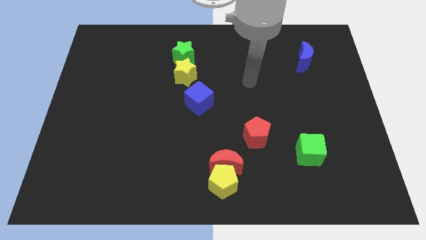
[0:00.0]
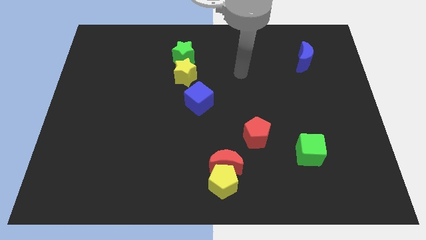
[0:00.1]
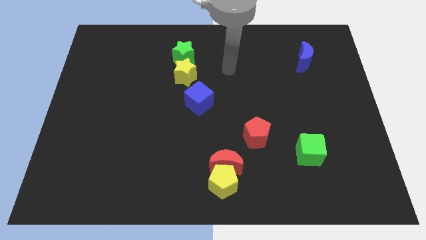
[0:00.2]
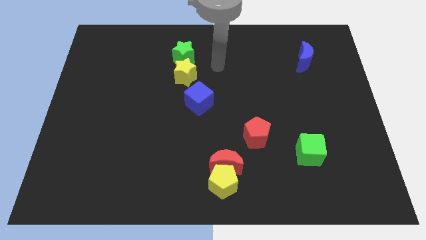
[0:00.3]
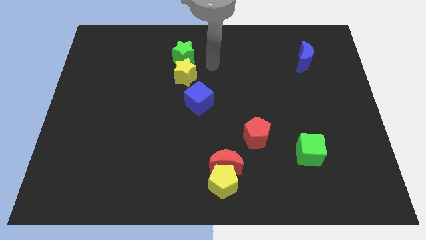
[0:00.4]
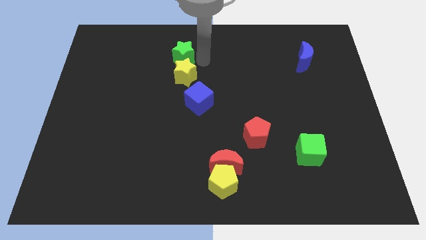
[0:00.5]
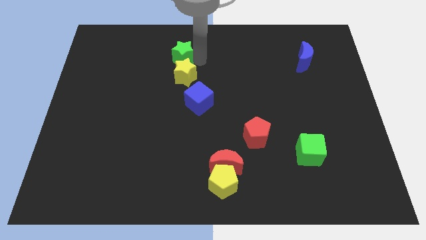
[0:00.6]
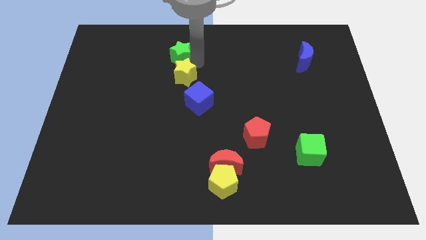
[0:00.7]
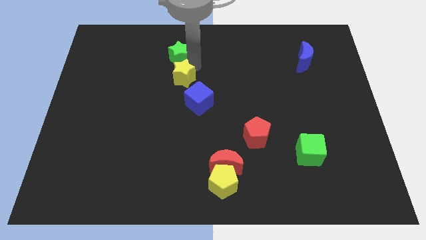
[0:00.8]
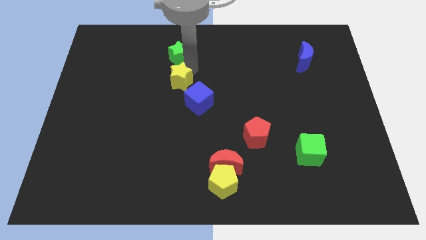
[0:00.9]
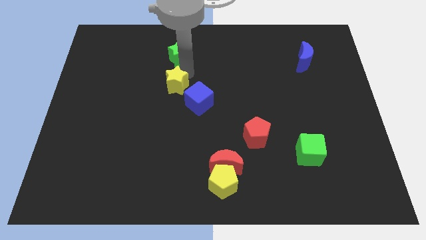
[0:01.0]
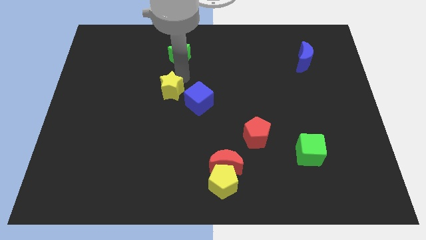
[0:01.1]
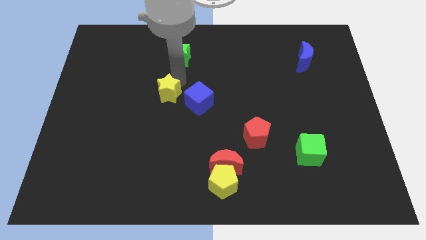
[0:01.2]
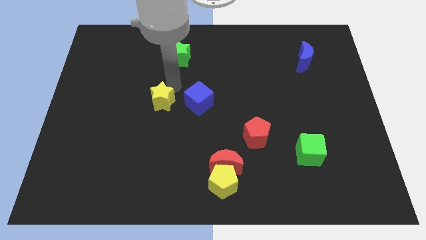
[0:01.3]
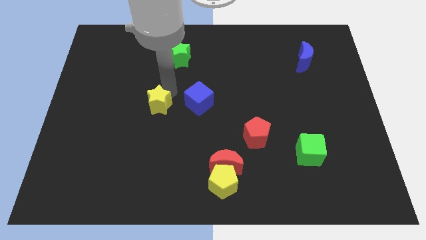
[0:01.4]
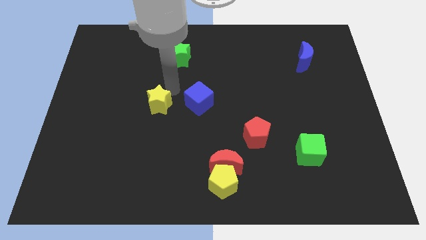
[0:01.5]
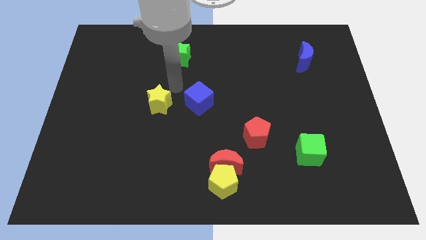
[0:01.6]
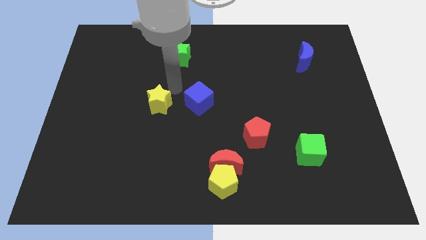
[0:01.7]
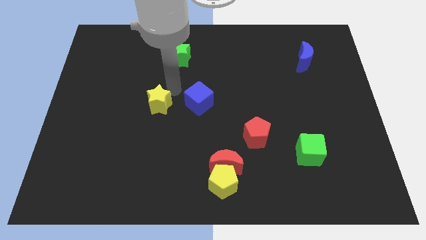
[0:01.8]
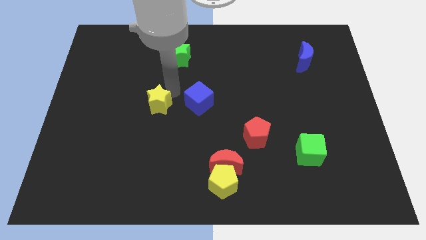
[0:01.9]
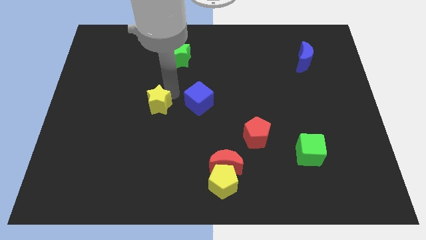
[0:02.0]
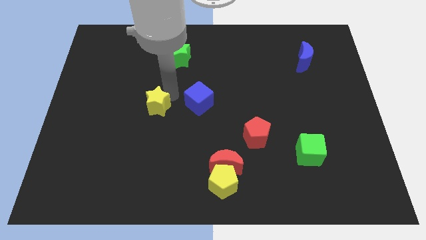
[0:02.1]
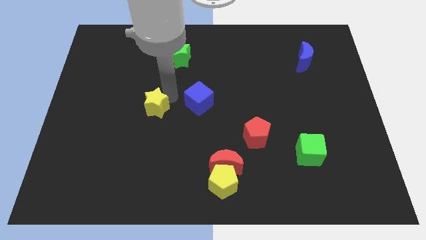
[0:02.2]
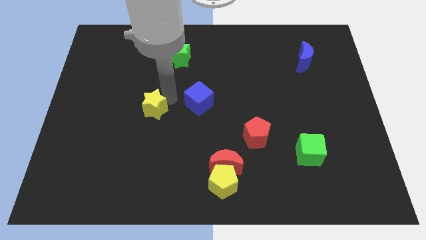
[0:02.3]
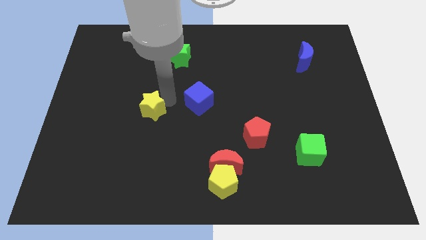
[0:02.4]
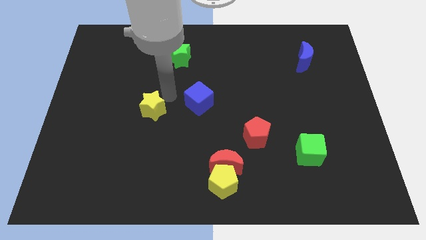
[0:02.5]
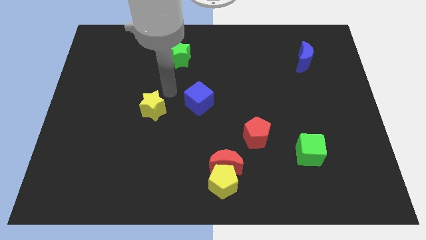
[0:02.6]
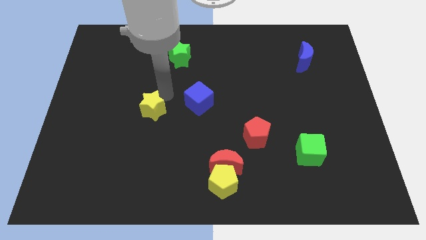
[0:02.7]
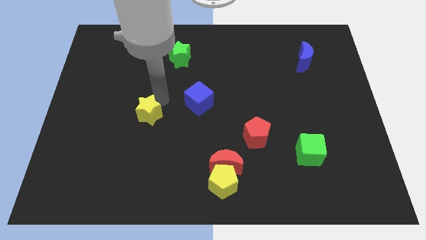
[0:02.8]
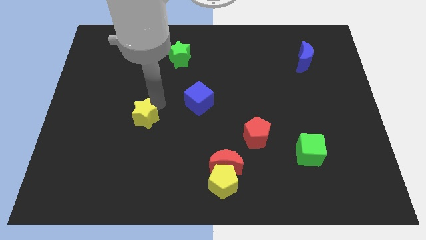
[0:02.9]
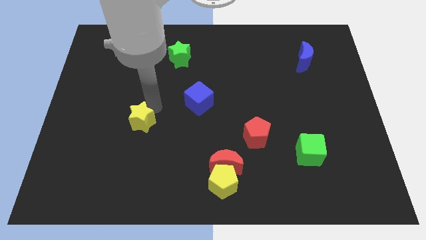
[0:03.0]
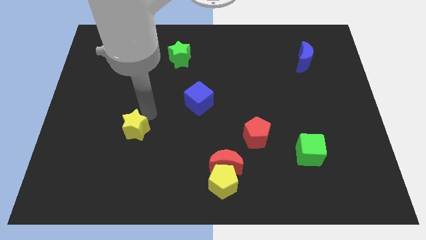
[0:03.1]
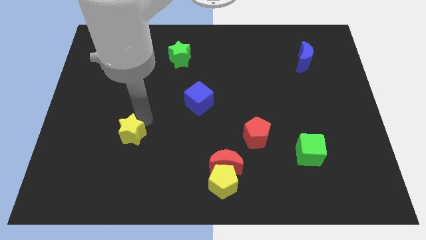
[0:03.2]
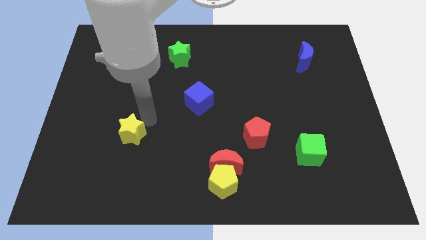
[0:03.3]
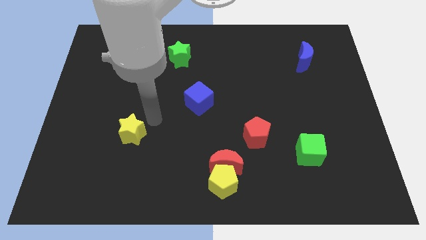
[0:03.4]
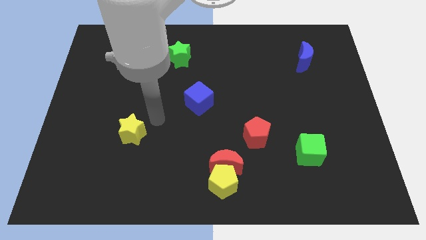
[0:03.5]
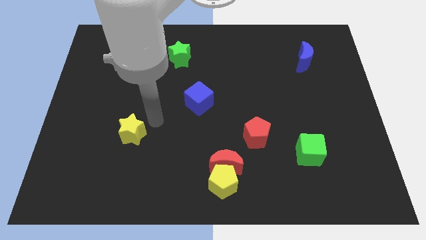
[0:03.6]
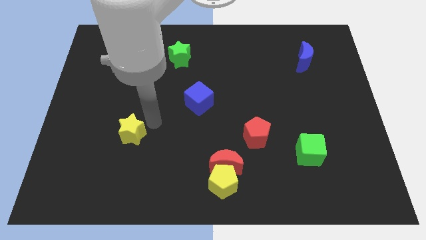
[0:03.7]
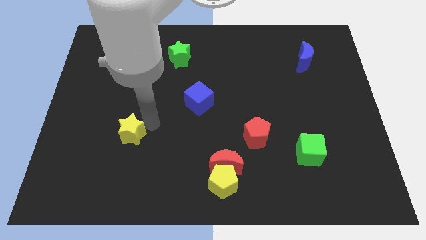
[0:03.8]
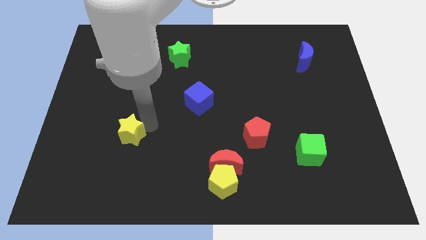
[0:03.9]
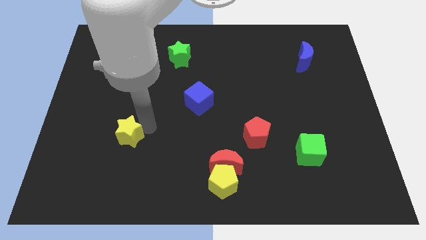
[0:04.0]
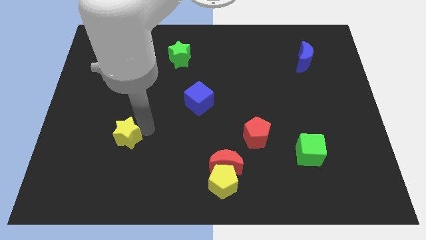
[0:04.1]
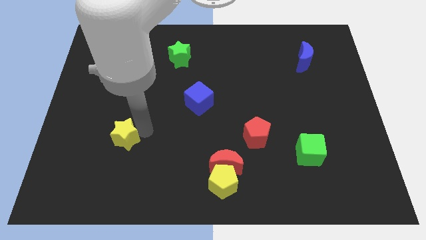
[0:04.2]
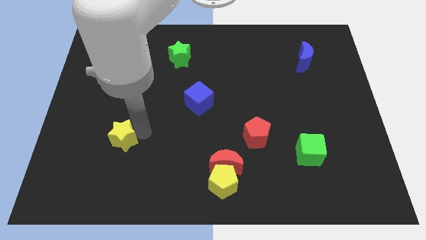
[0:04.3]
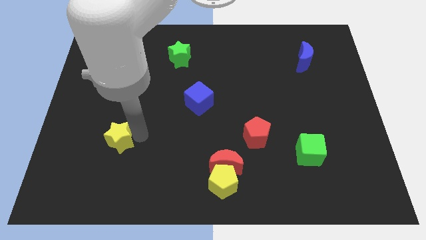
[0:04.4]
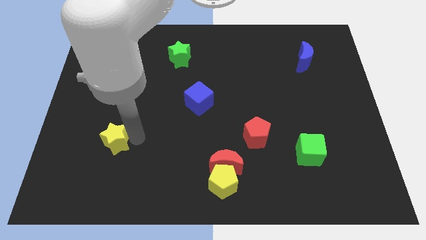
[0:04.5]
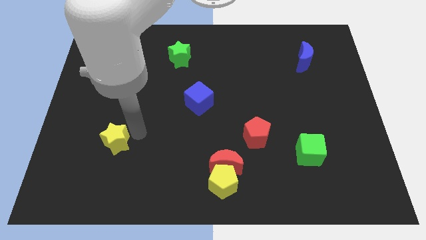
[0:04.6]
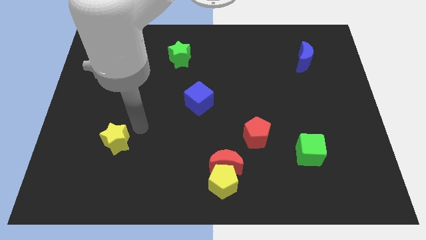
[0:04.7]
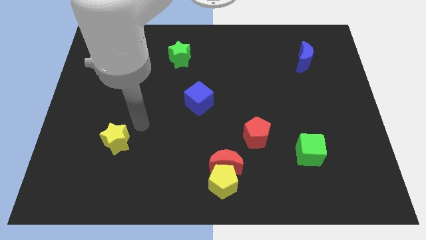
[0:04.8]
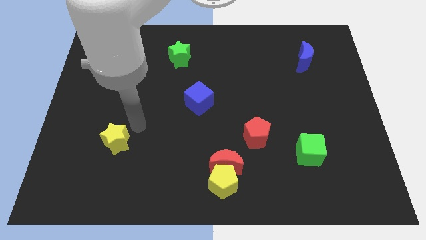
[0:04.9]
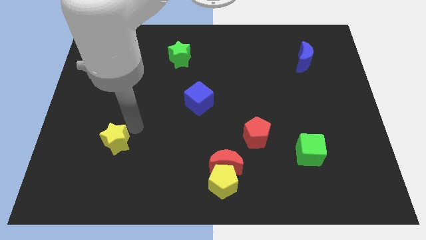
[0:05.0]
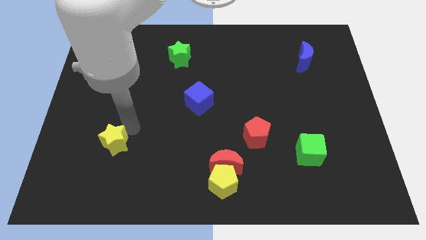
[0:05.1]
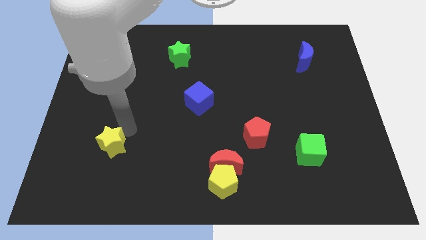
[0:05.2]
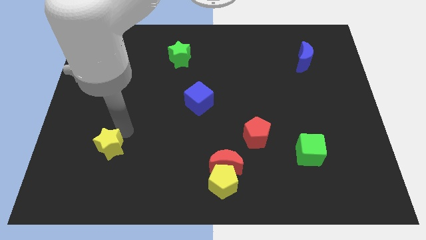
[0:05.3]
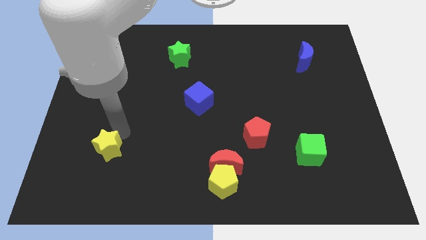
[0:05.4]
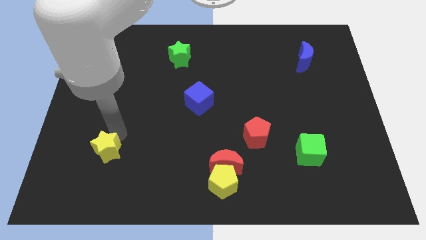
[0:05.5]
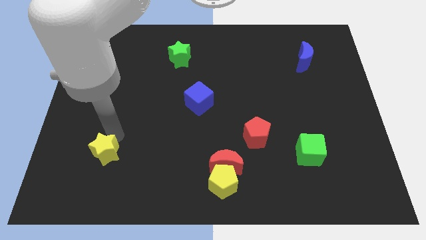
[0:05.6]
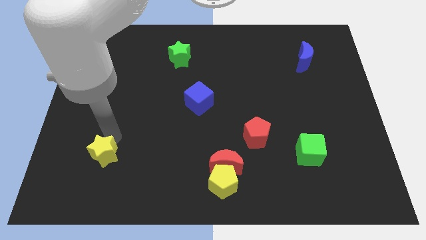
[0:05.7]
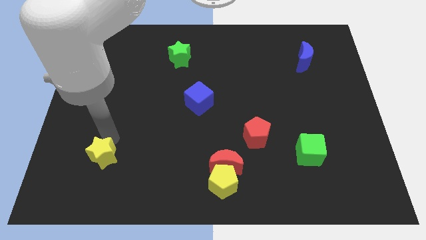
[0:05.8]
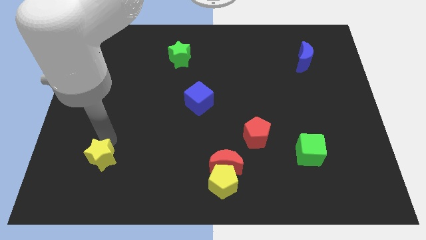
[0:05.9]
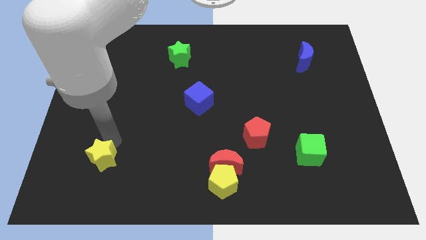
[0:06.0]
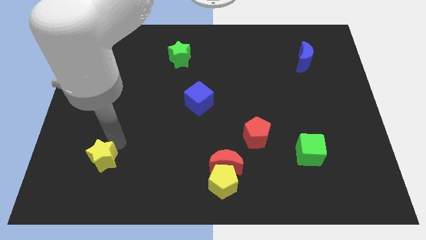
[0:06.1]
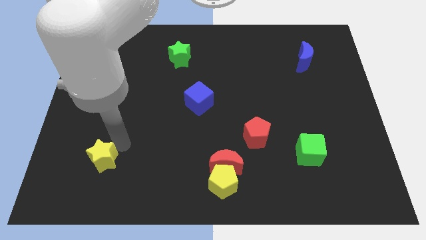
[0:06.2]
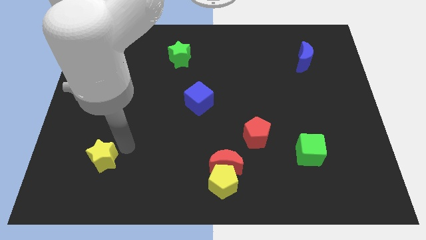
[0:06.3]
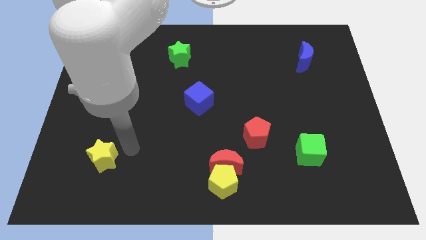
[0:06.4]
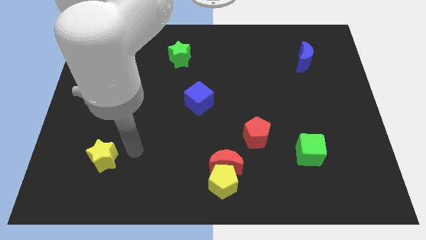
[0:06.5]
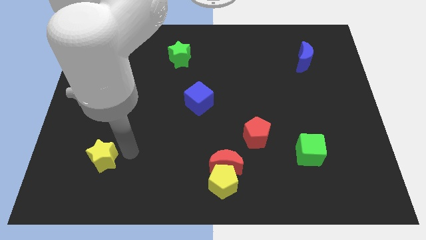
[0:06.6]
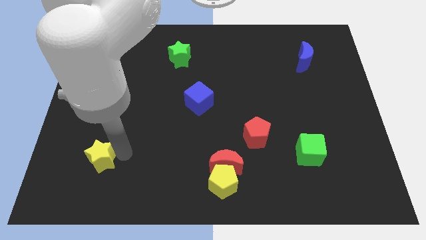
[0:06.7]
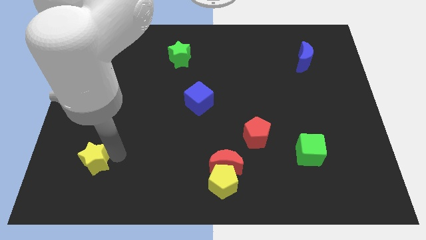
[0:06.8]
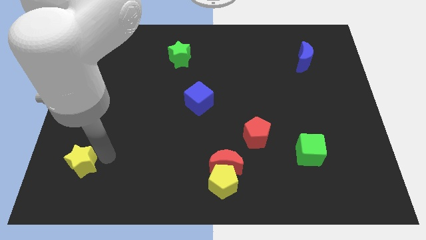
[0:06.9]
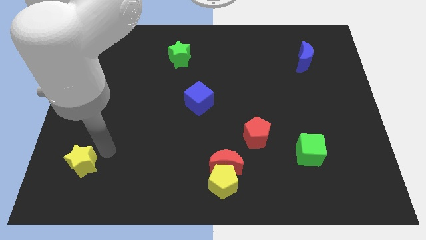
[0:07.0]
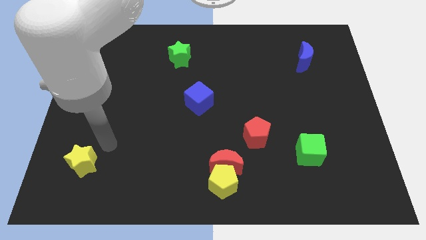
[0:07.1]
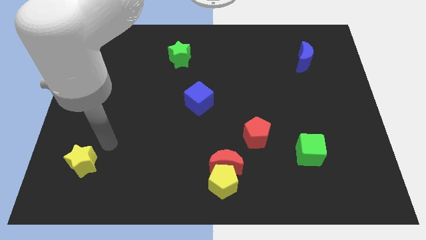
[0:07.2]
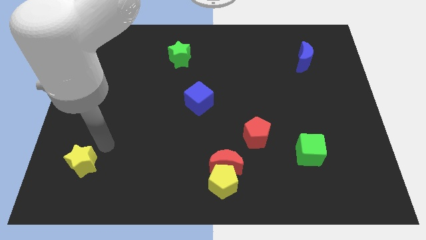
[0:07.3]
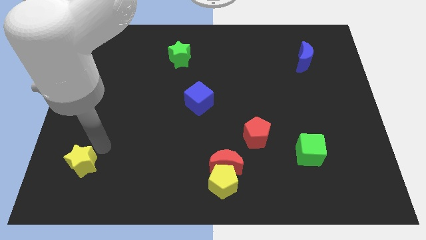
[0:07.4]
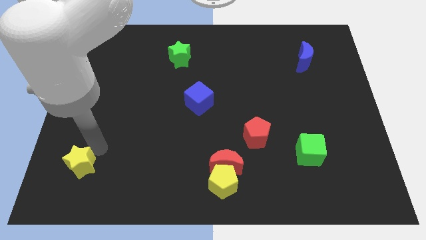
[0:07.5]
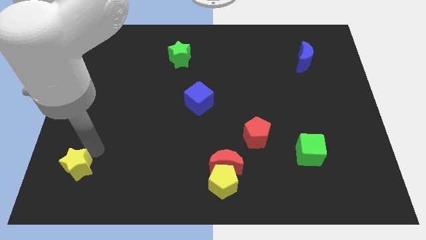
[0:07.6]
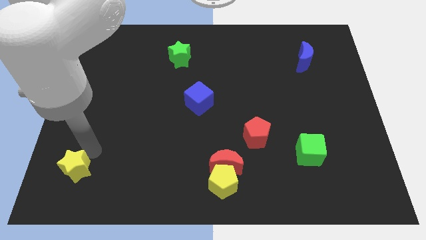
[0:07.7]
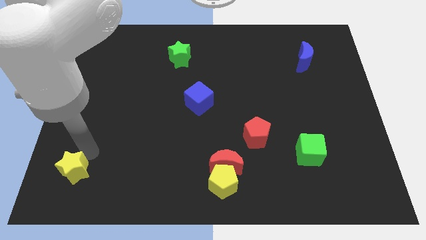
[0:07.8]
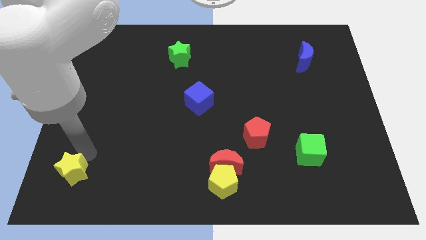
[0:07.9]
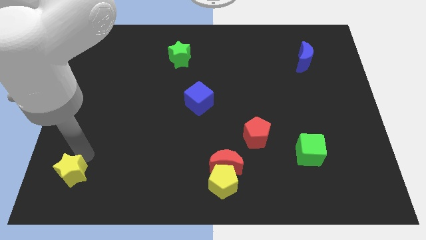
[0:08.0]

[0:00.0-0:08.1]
move the yellow star to the bottom left corner
